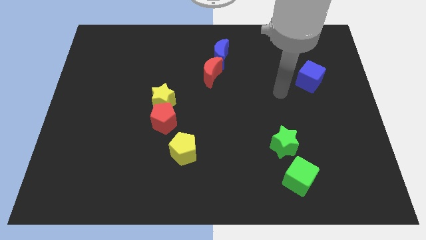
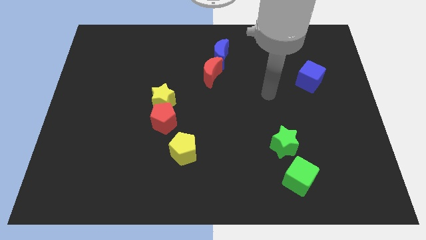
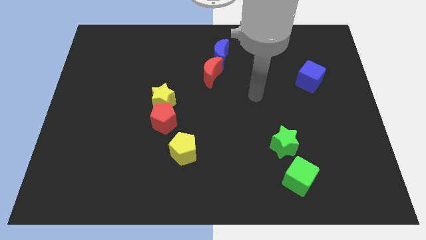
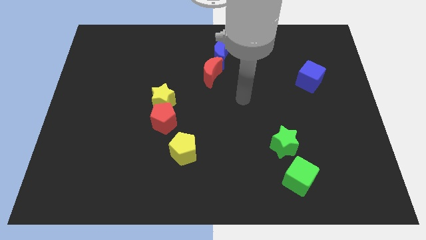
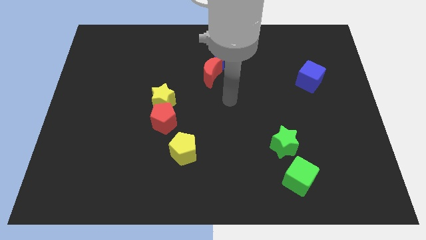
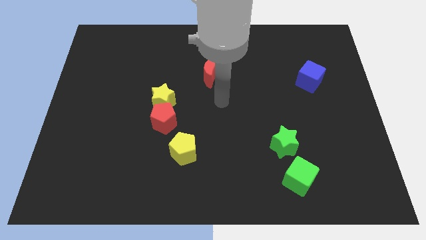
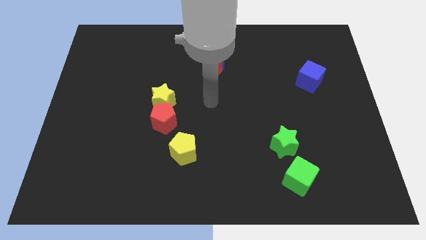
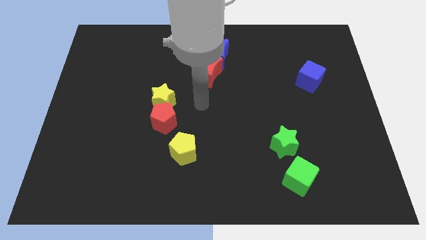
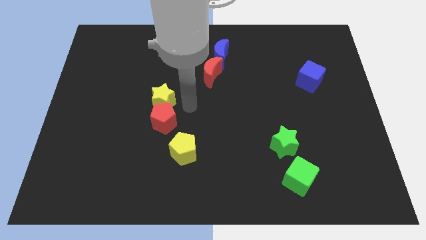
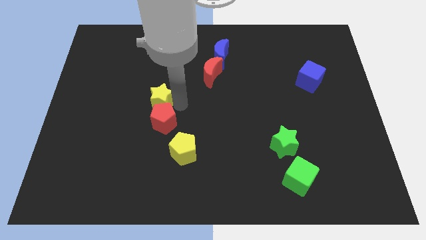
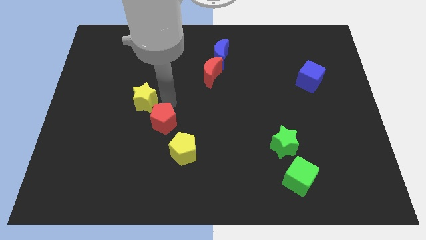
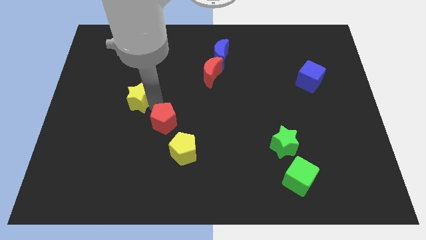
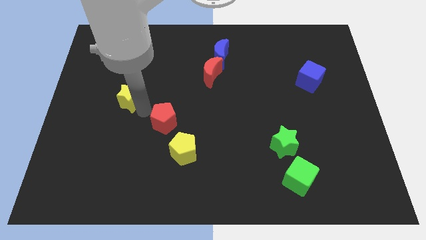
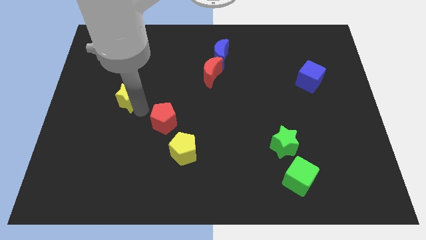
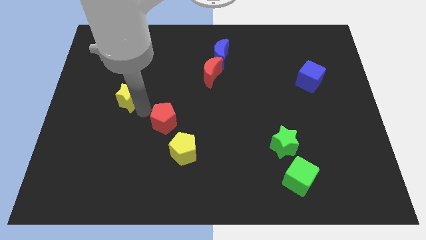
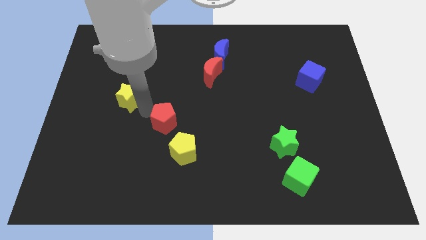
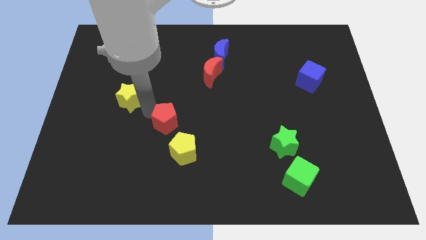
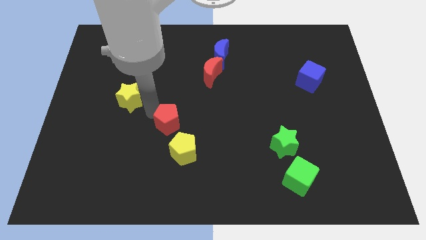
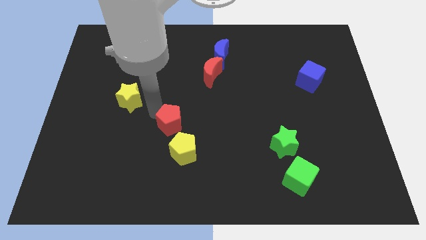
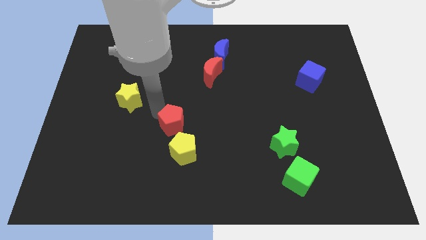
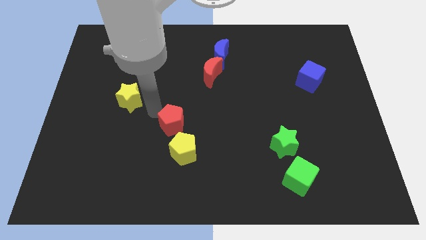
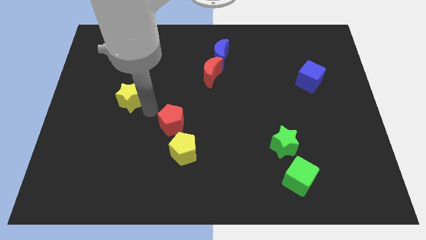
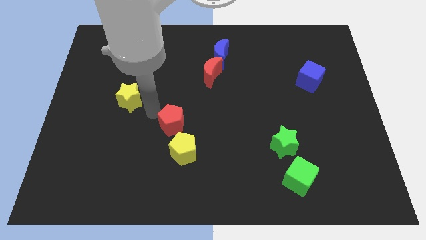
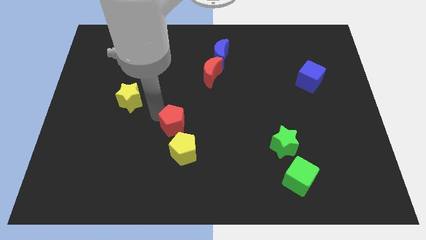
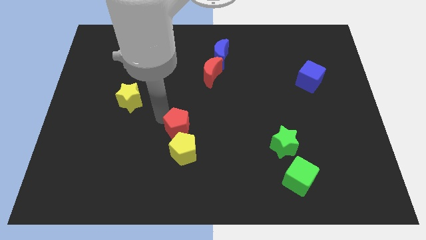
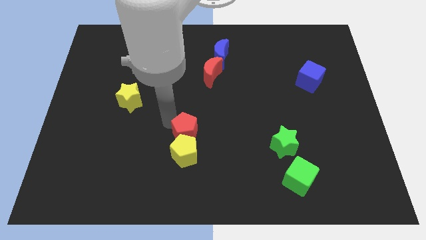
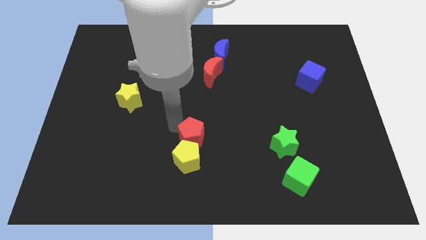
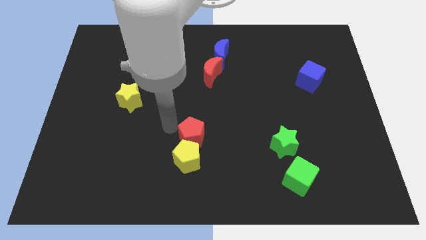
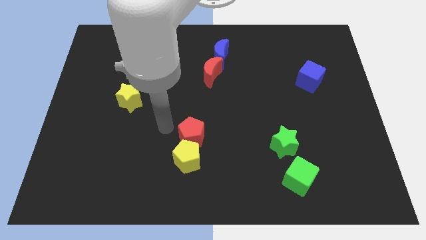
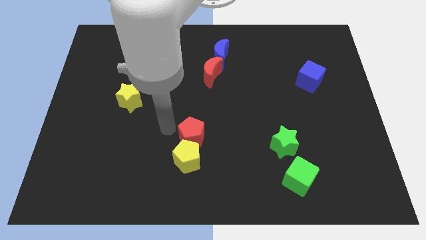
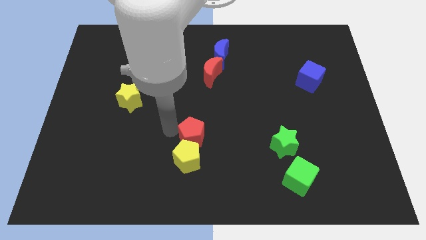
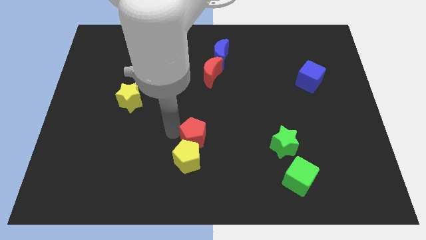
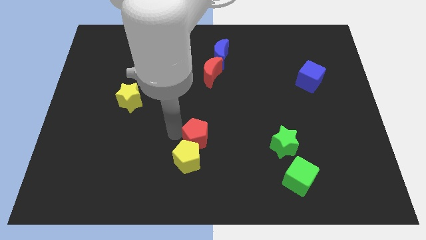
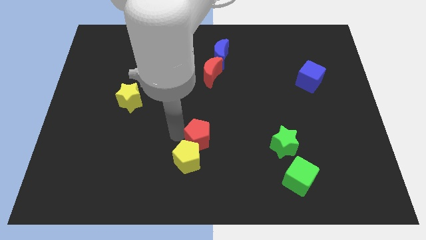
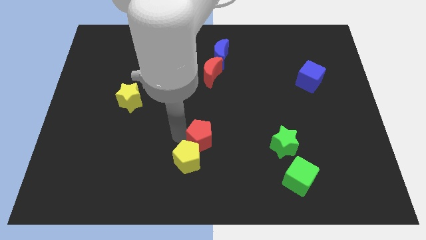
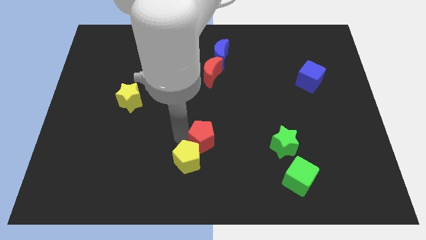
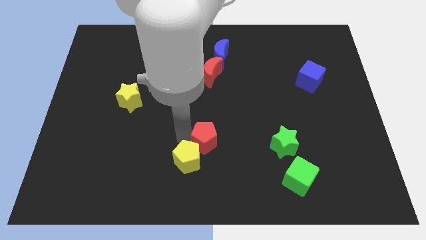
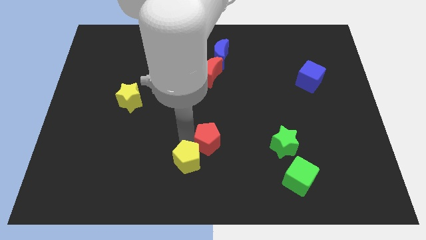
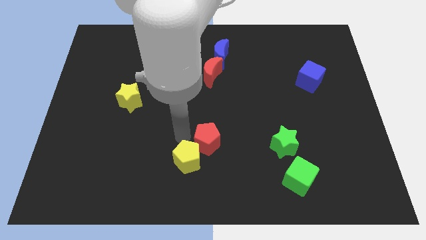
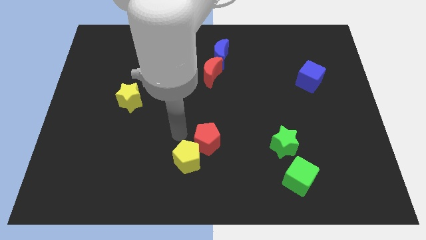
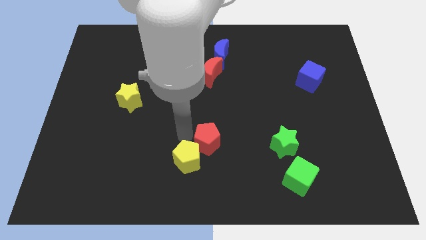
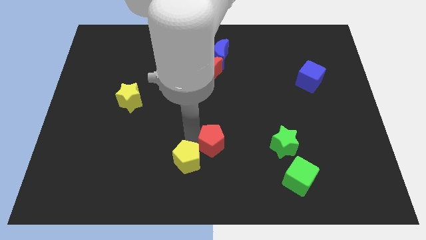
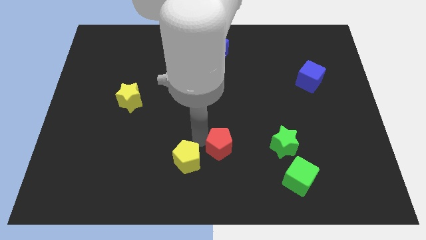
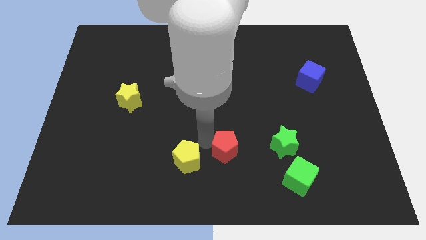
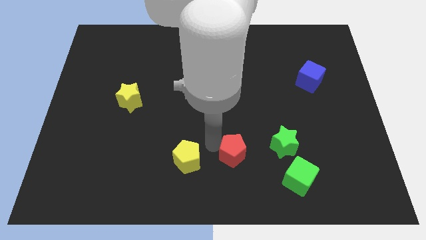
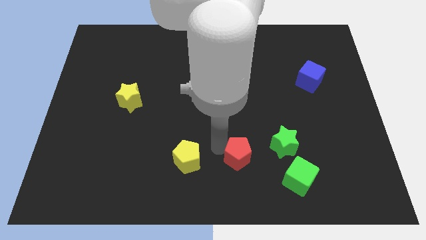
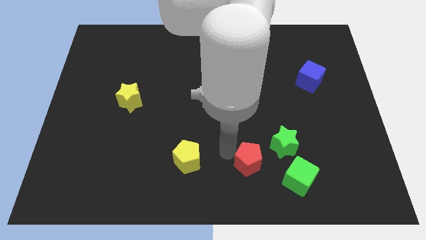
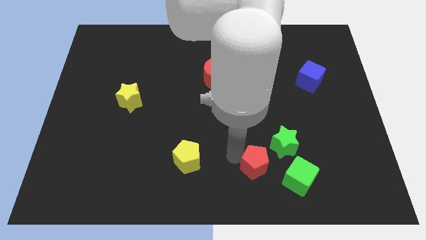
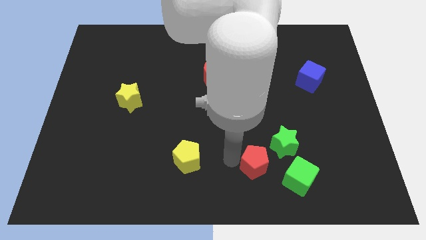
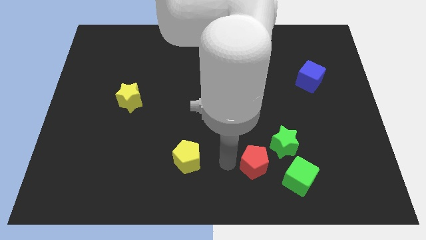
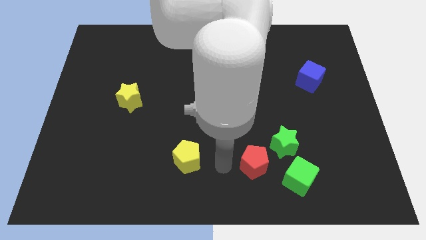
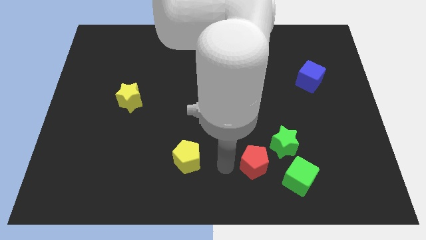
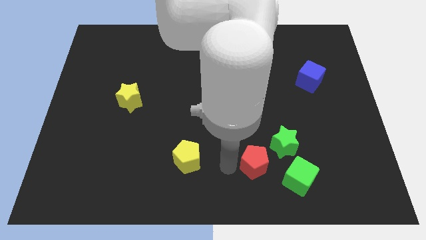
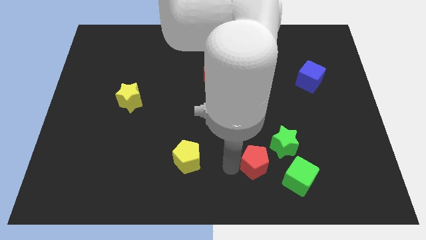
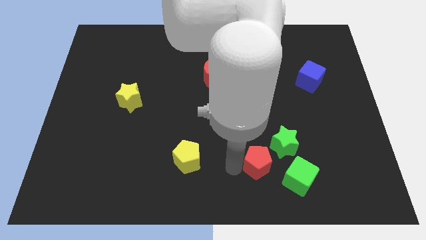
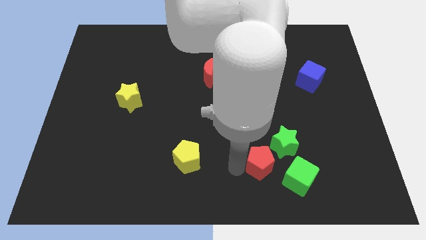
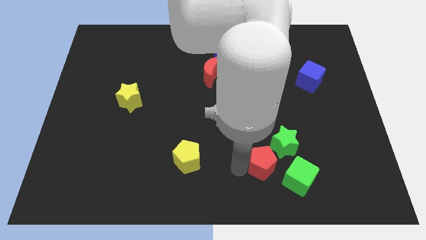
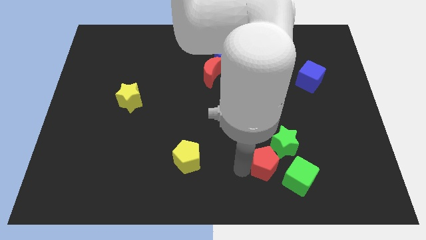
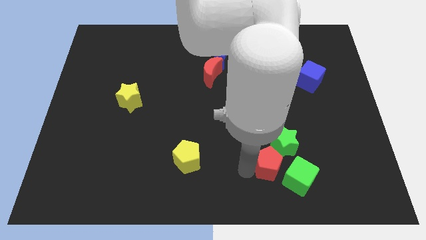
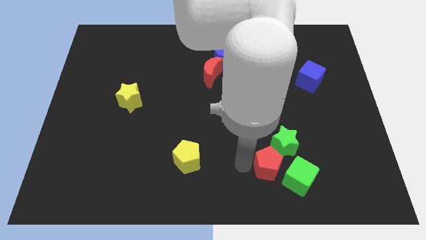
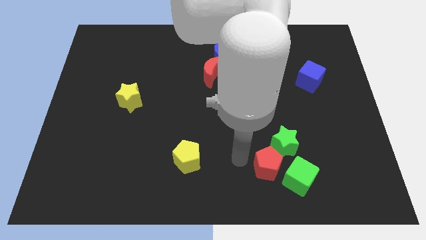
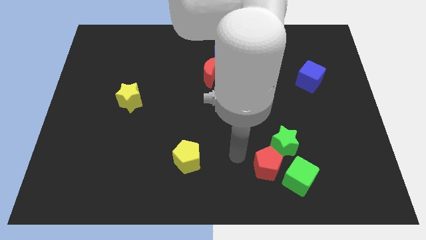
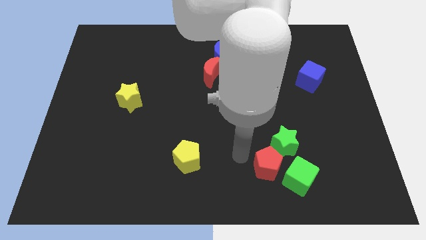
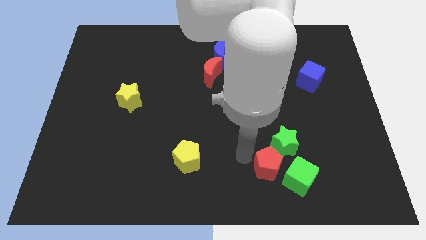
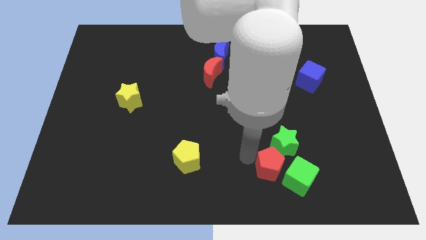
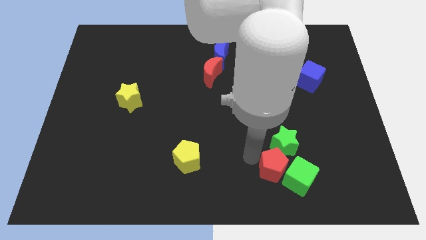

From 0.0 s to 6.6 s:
push the red pentagon to the green cube
